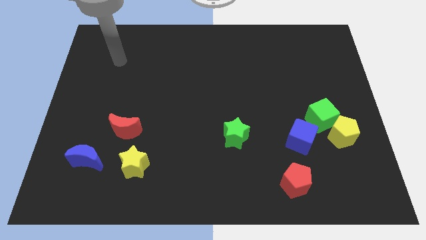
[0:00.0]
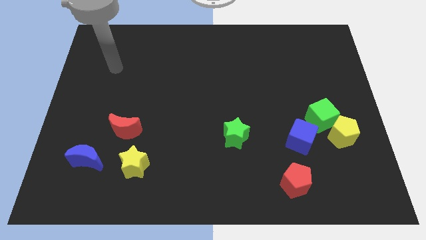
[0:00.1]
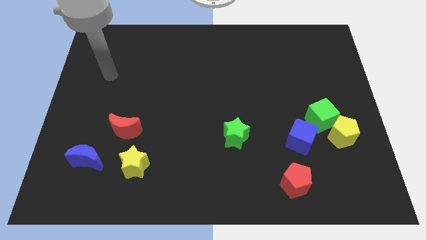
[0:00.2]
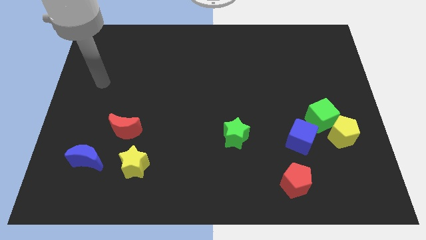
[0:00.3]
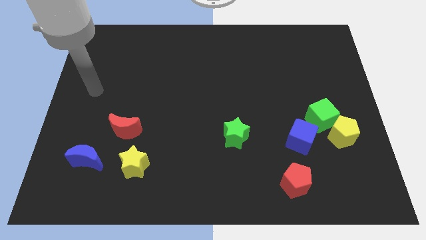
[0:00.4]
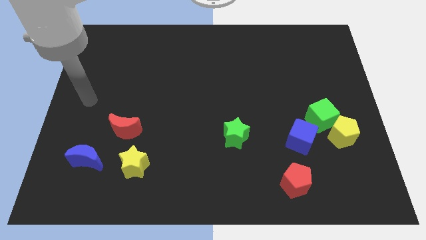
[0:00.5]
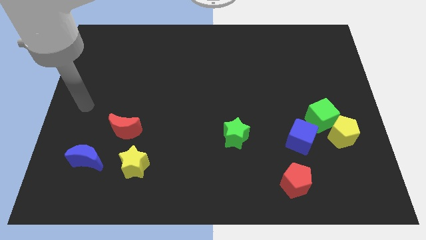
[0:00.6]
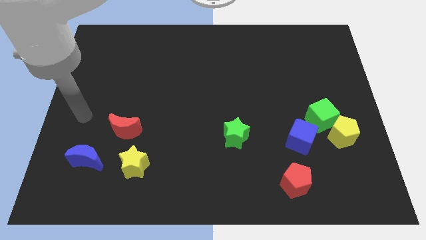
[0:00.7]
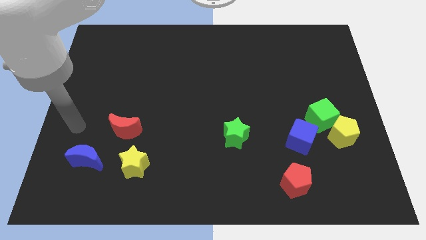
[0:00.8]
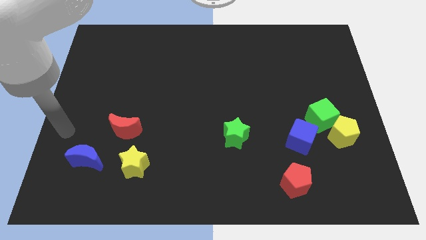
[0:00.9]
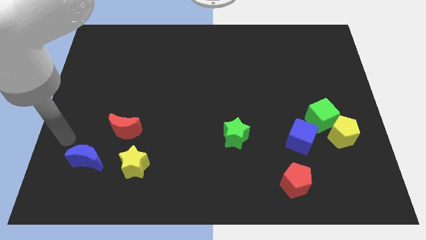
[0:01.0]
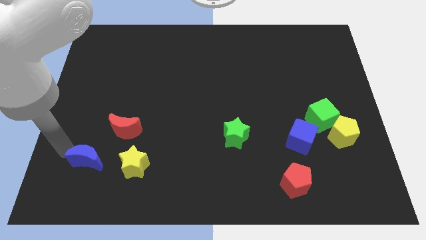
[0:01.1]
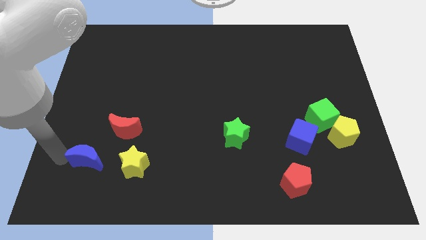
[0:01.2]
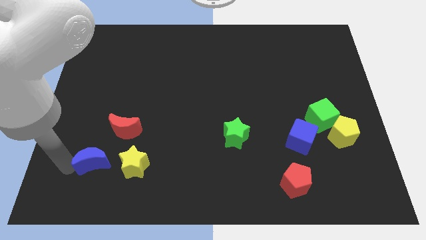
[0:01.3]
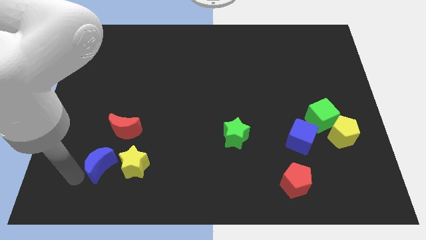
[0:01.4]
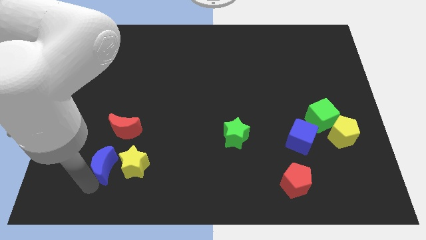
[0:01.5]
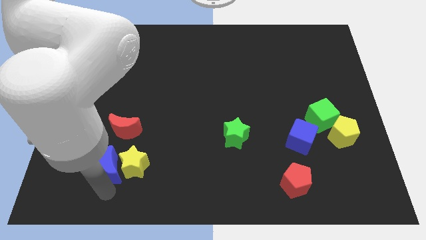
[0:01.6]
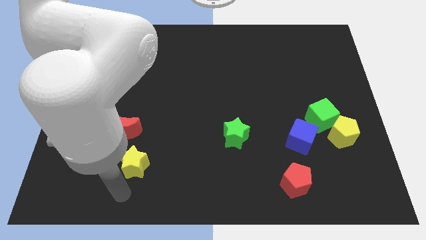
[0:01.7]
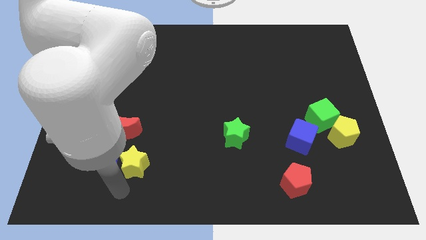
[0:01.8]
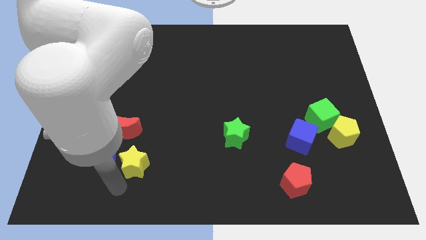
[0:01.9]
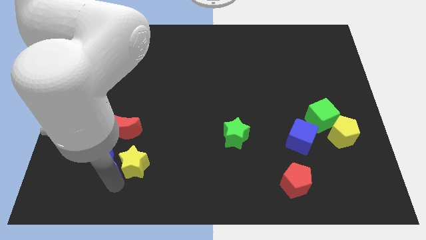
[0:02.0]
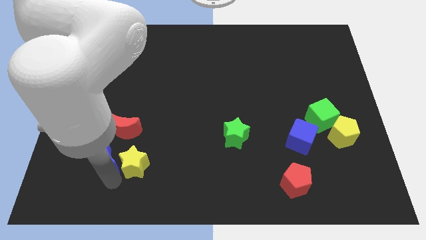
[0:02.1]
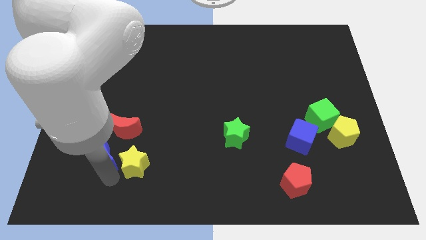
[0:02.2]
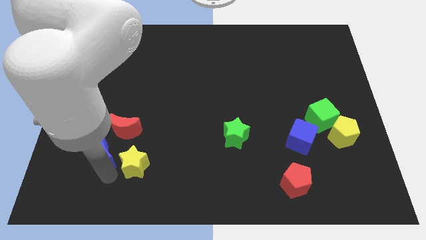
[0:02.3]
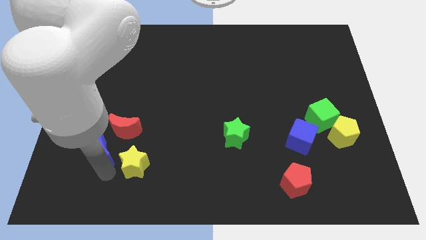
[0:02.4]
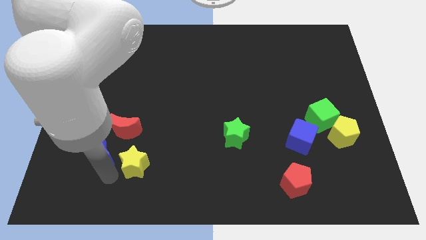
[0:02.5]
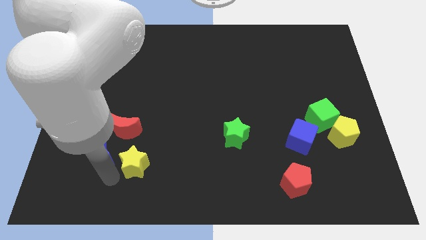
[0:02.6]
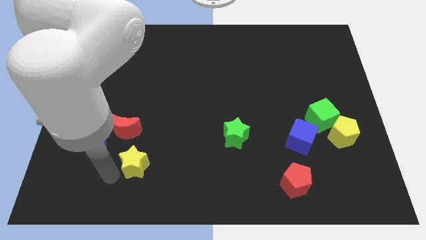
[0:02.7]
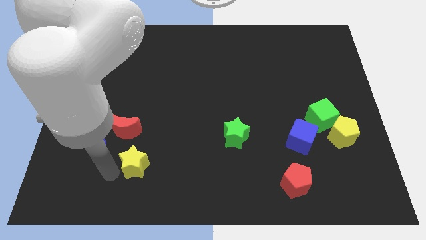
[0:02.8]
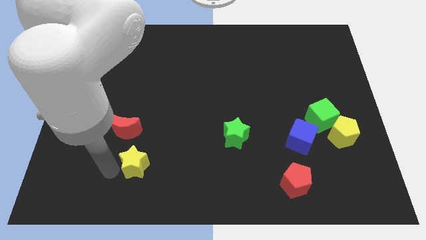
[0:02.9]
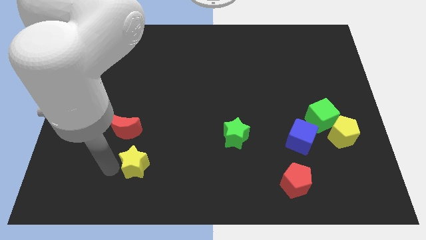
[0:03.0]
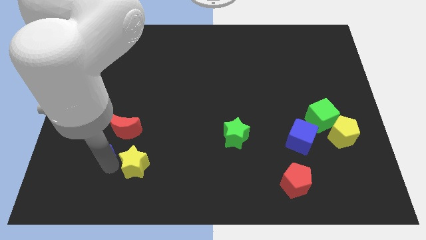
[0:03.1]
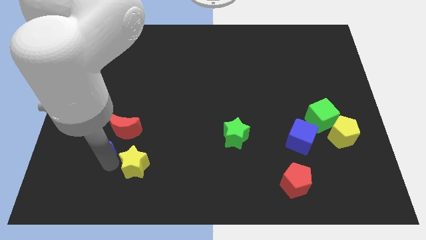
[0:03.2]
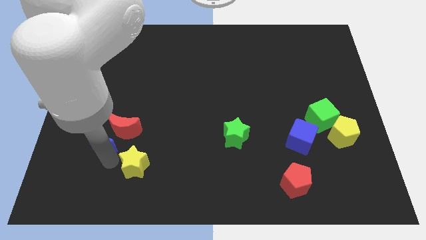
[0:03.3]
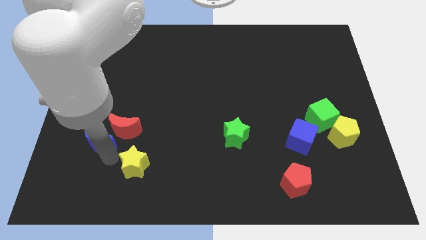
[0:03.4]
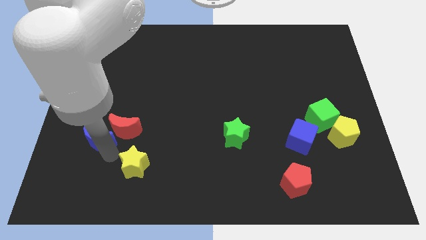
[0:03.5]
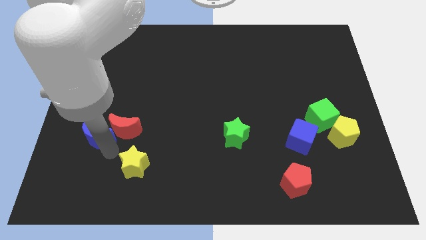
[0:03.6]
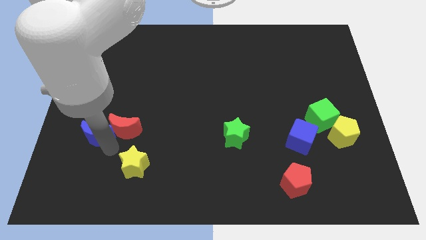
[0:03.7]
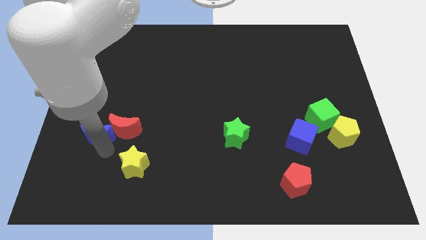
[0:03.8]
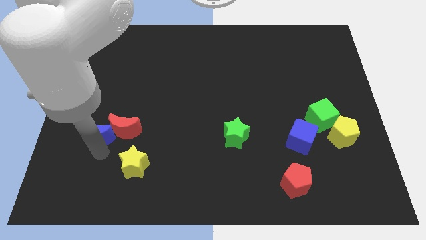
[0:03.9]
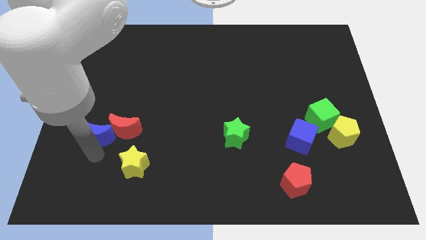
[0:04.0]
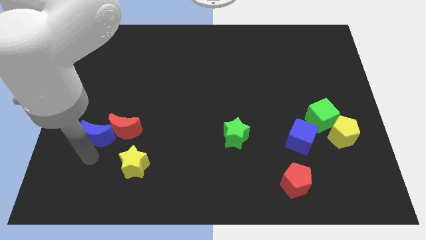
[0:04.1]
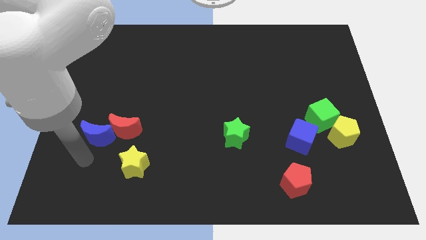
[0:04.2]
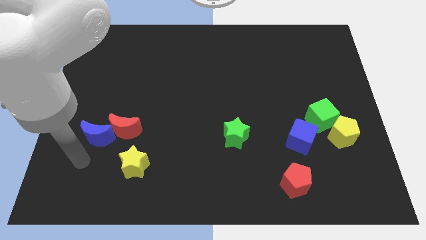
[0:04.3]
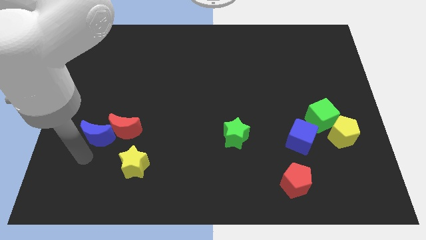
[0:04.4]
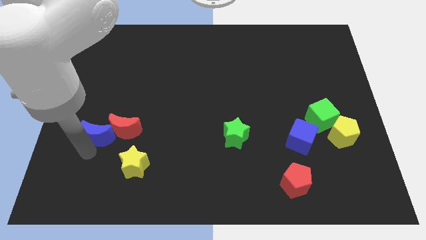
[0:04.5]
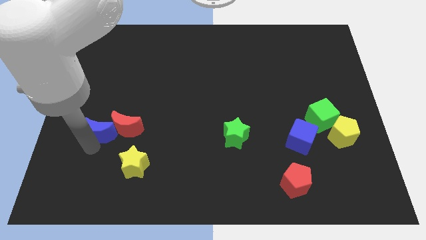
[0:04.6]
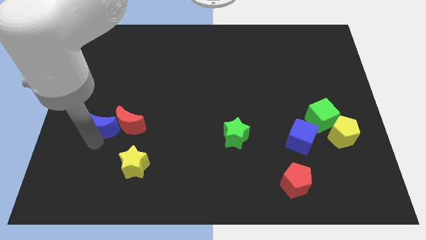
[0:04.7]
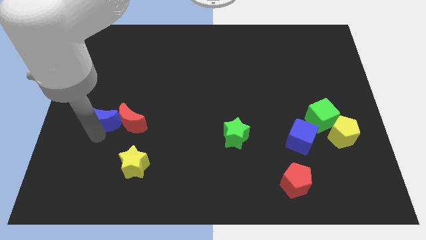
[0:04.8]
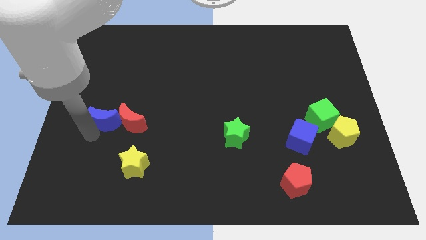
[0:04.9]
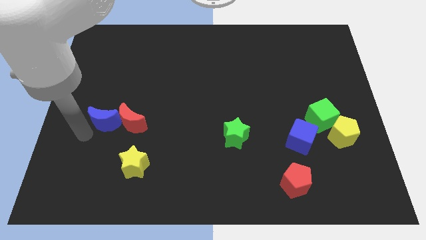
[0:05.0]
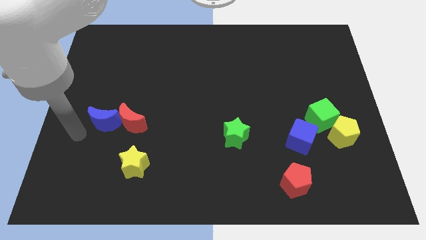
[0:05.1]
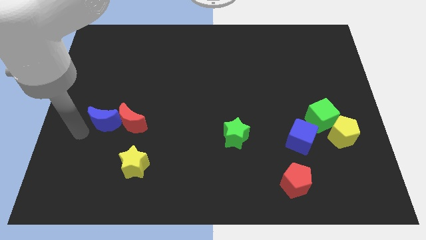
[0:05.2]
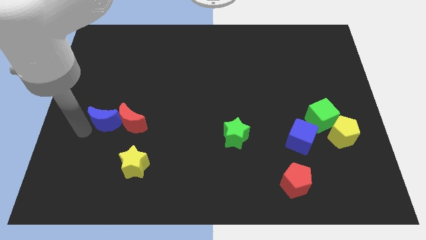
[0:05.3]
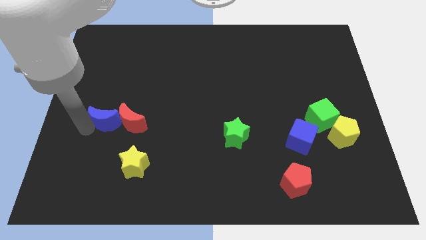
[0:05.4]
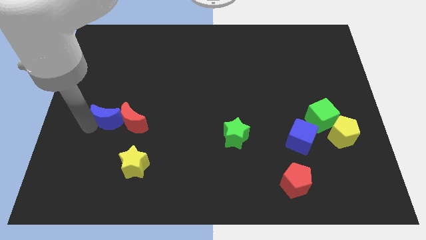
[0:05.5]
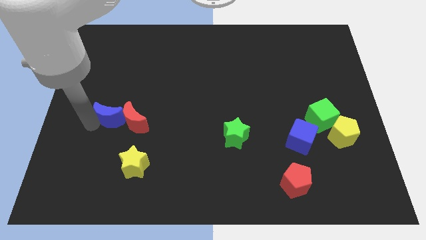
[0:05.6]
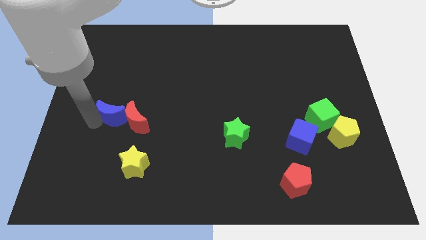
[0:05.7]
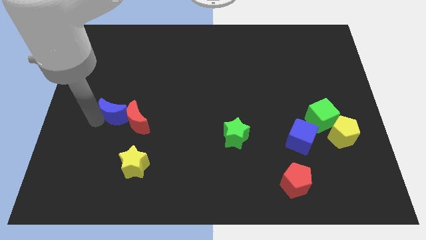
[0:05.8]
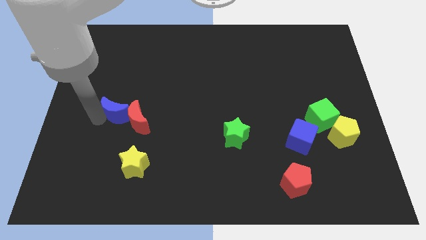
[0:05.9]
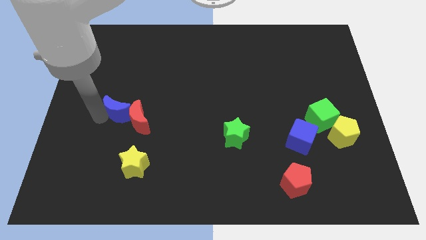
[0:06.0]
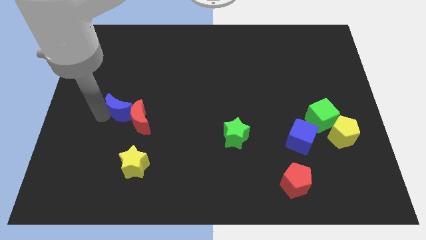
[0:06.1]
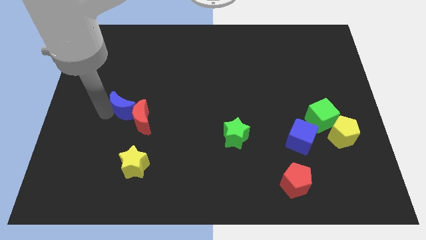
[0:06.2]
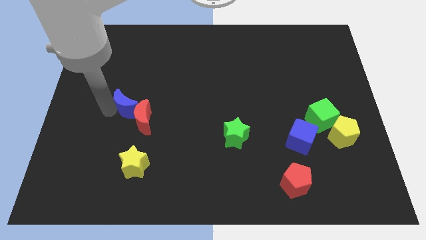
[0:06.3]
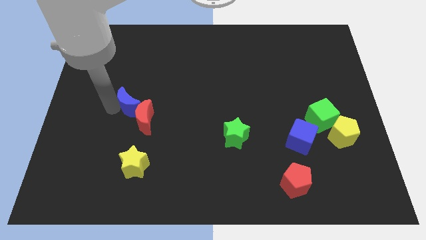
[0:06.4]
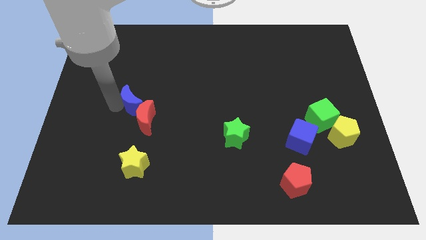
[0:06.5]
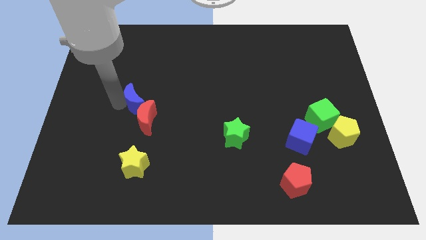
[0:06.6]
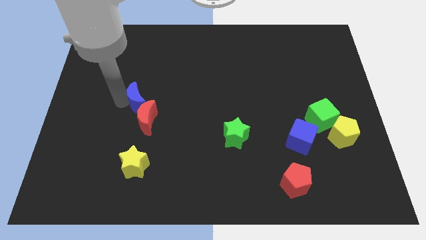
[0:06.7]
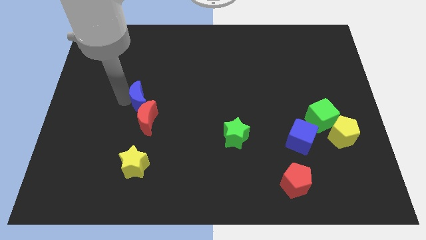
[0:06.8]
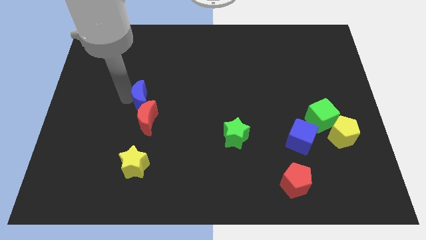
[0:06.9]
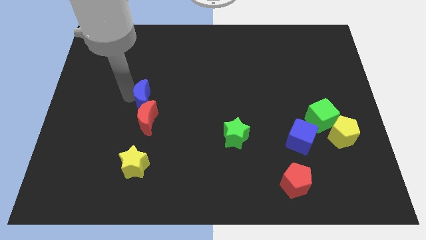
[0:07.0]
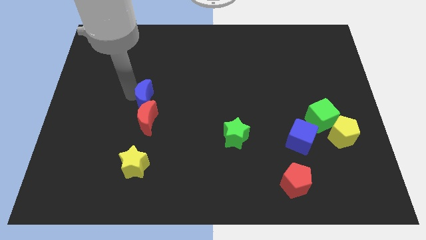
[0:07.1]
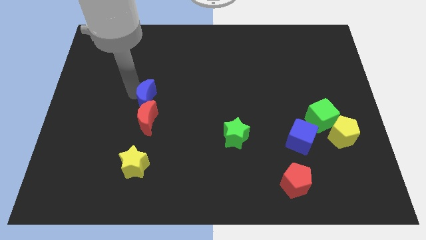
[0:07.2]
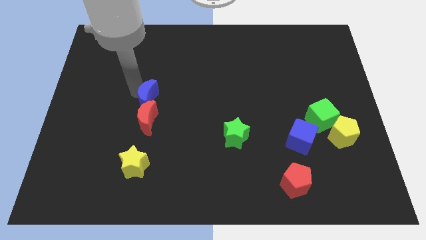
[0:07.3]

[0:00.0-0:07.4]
push the blue moon to the top right side of the red moon
